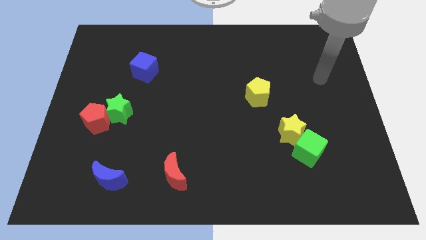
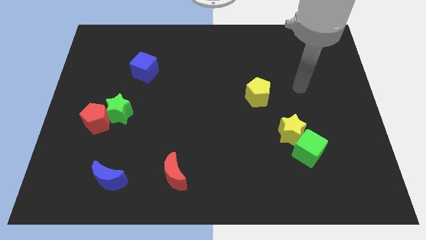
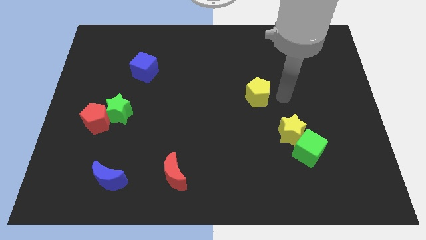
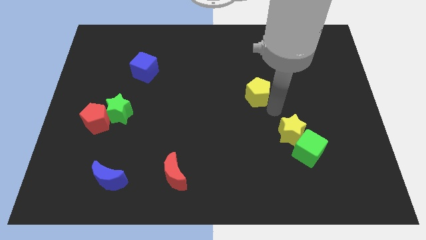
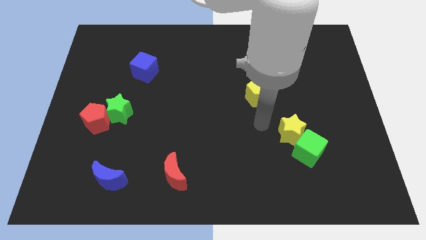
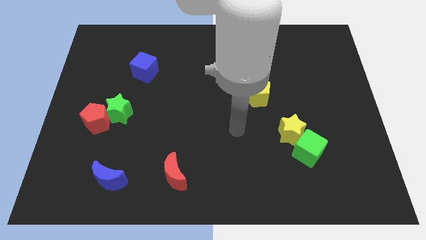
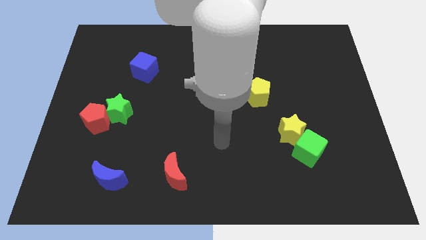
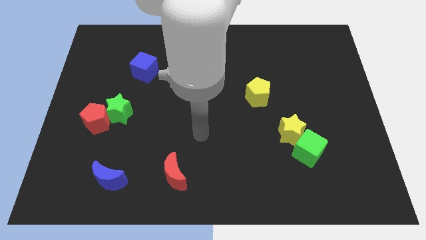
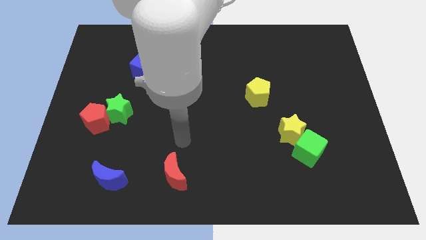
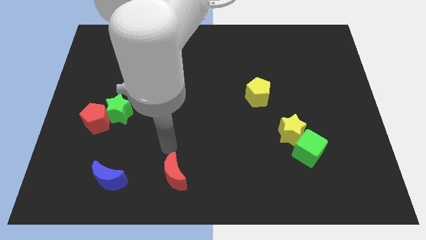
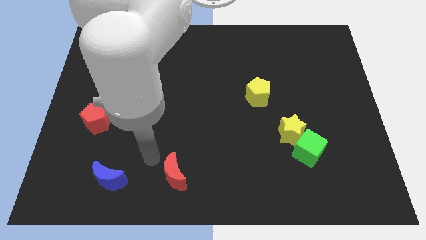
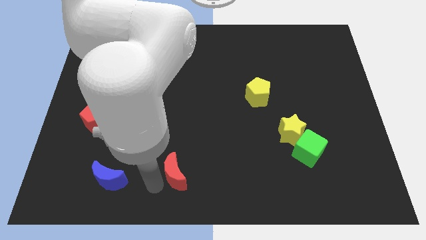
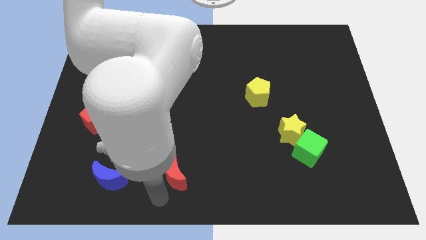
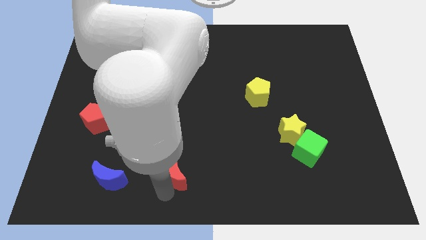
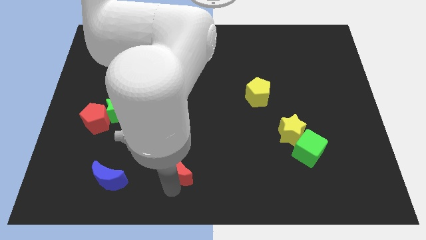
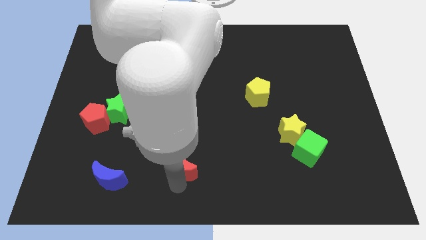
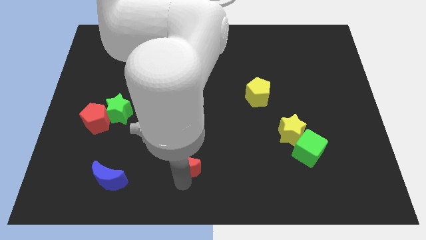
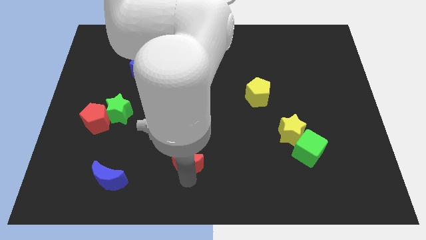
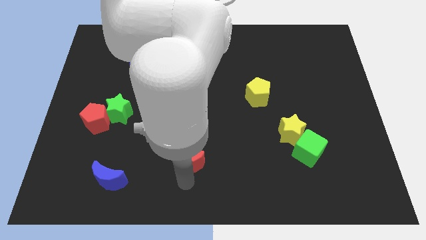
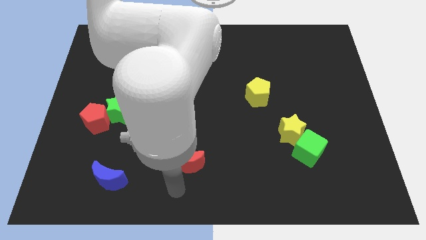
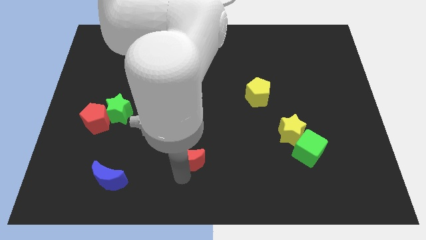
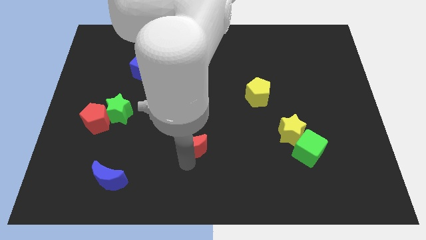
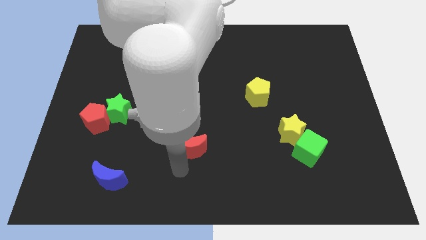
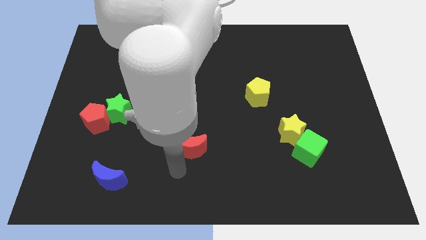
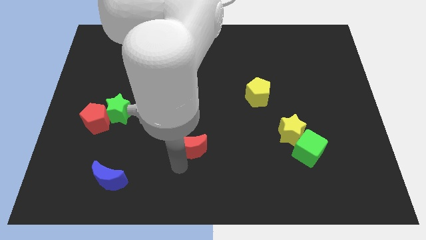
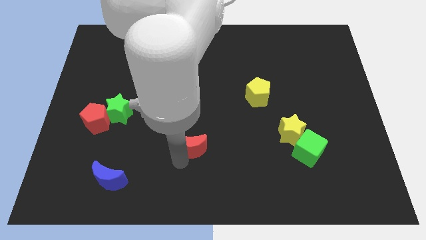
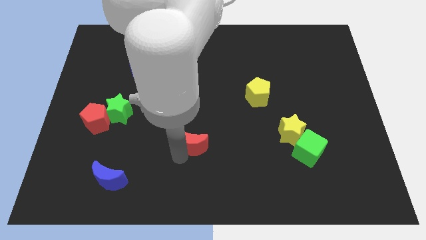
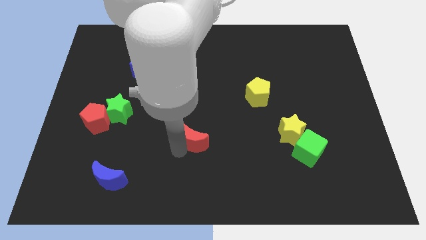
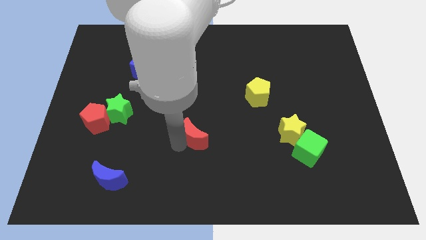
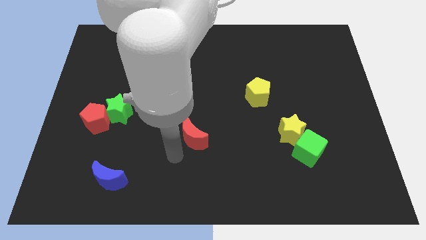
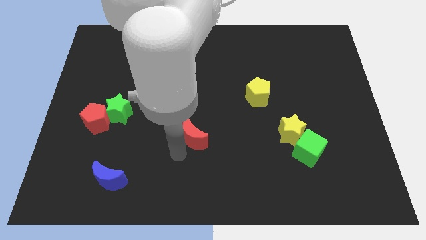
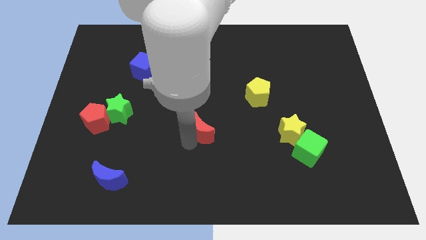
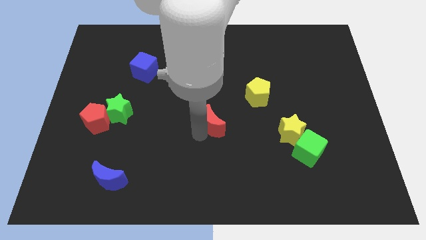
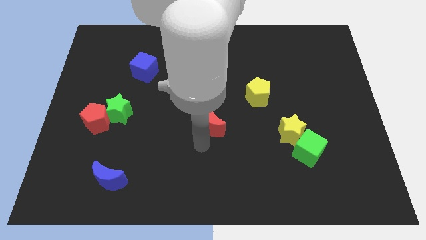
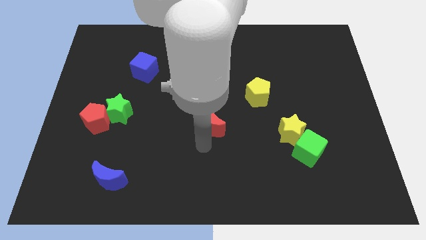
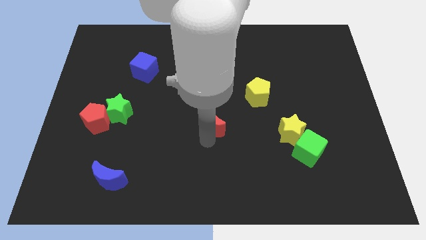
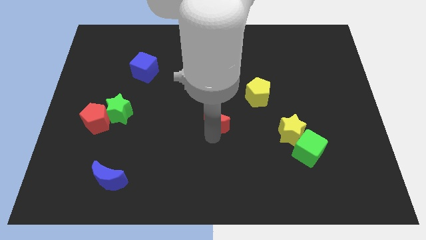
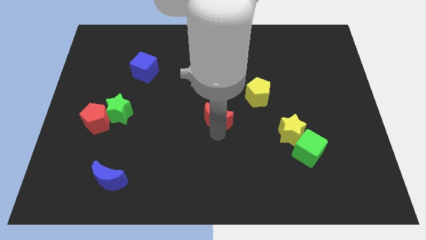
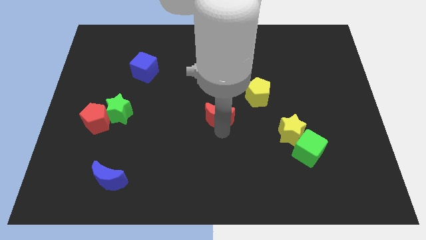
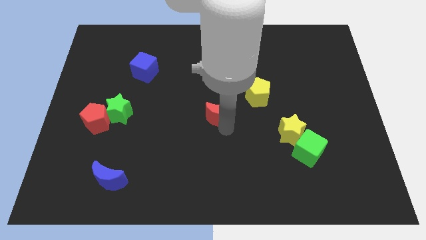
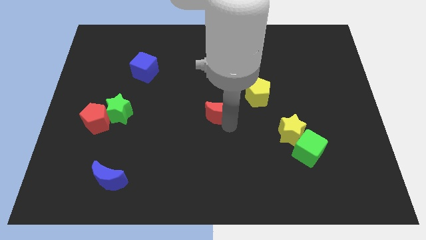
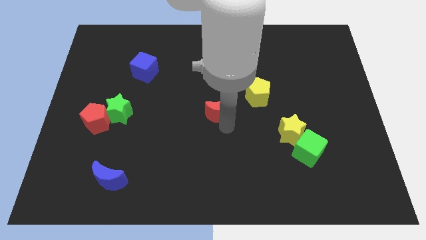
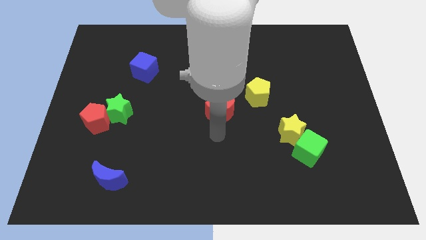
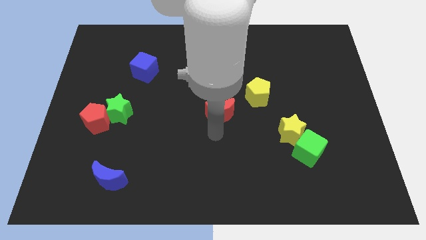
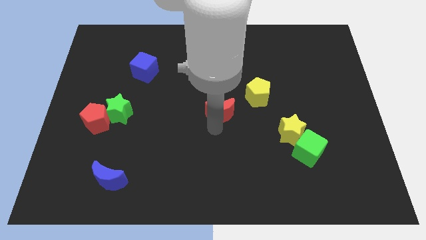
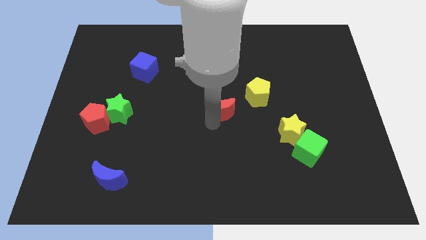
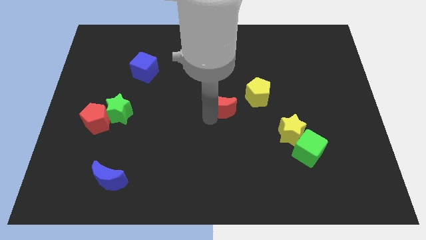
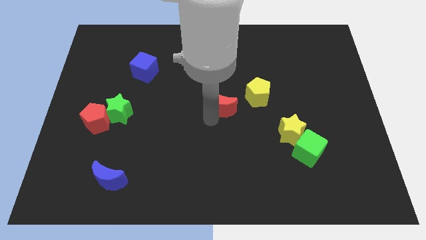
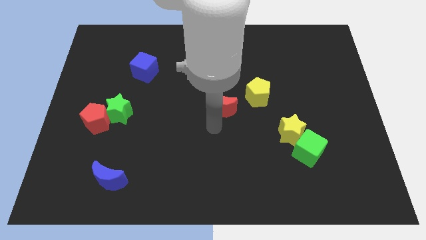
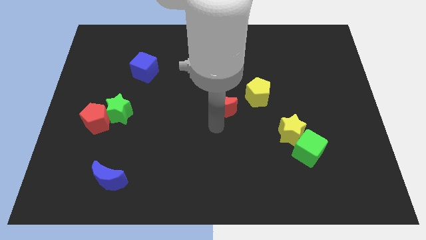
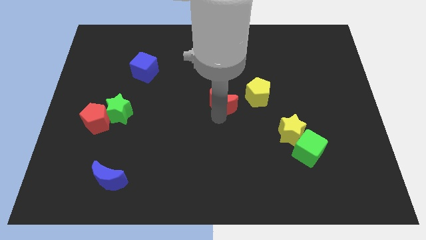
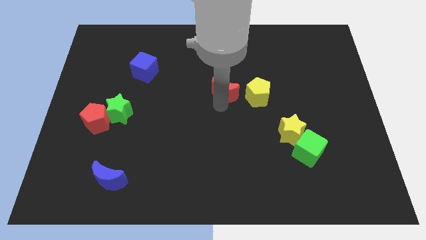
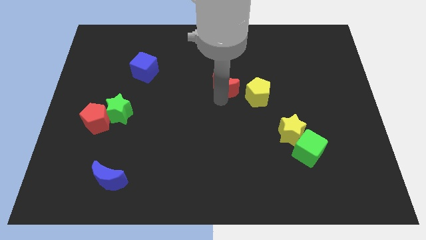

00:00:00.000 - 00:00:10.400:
move the red moon diagonally up and to the left of the yellow pentagon

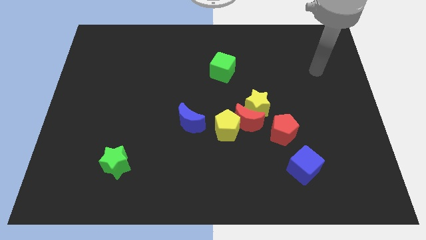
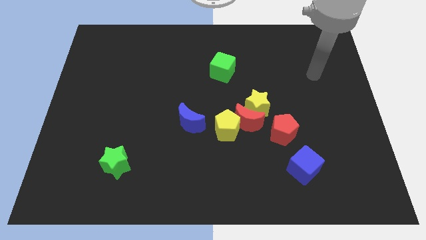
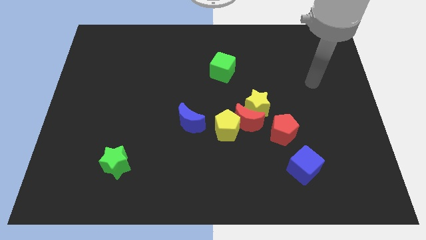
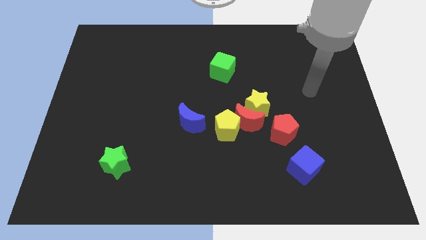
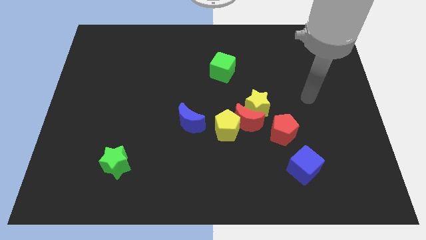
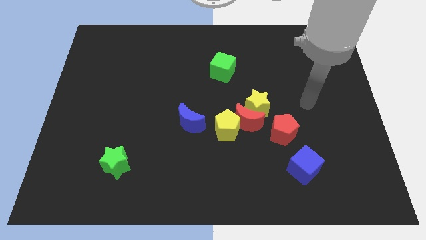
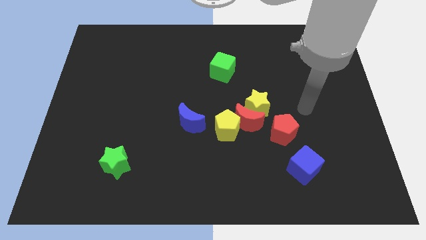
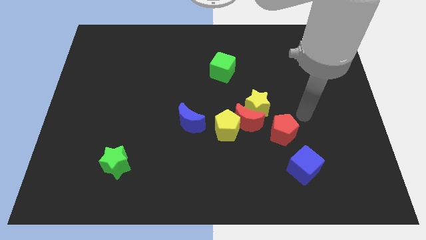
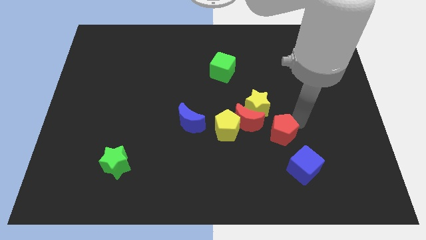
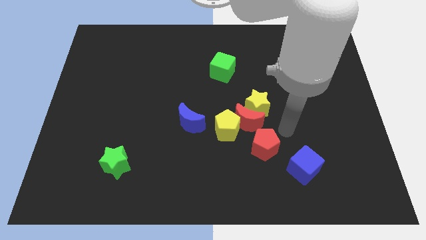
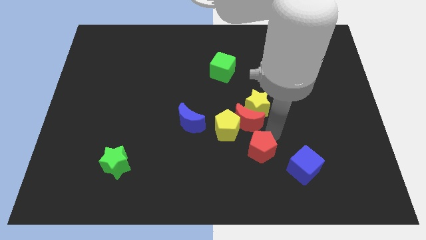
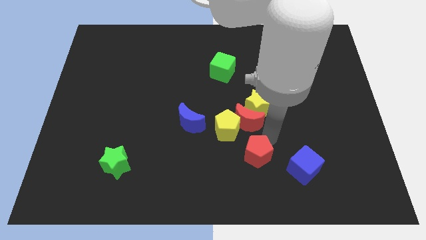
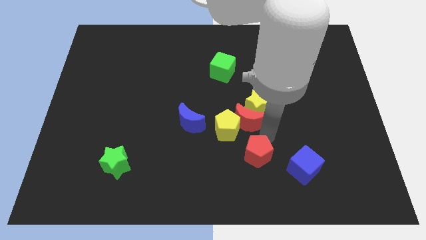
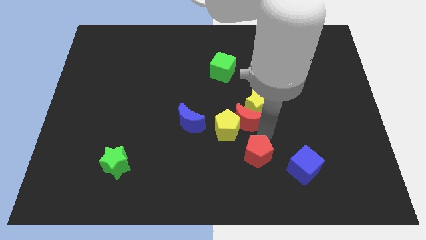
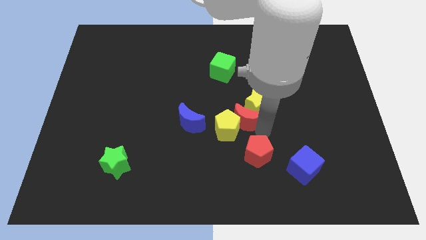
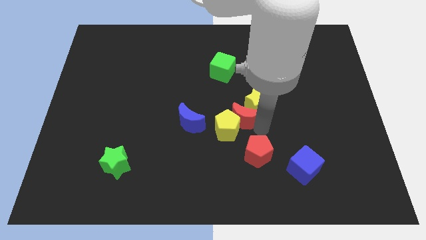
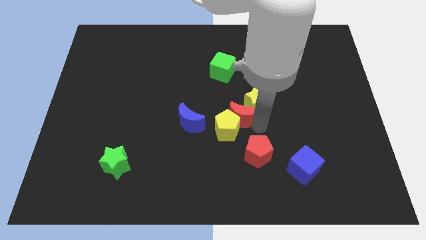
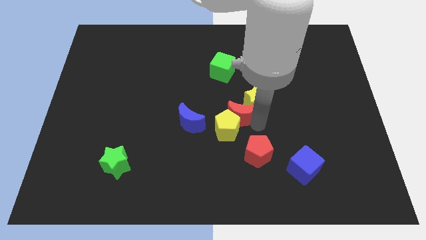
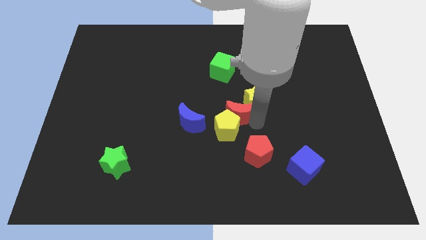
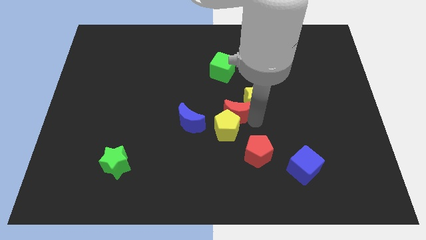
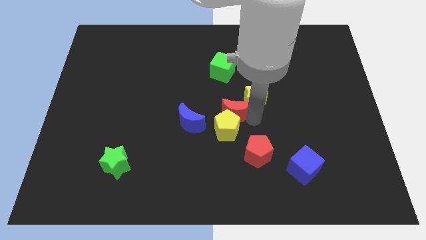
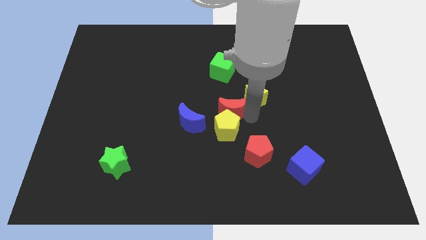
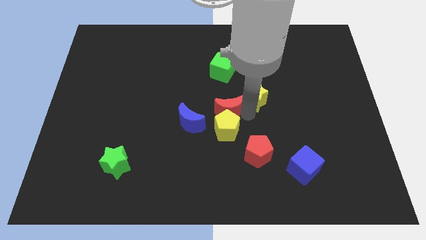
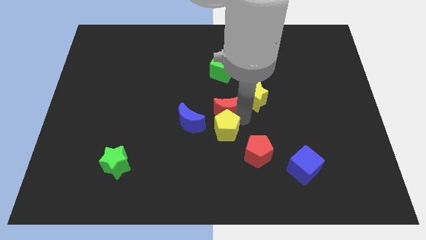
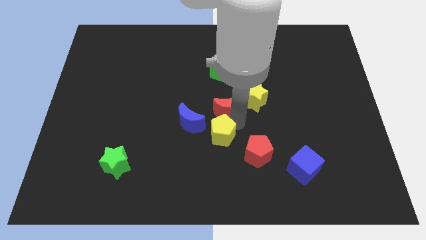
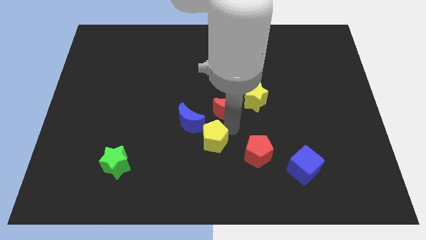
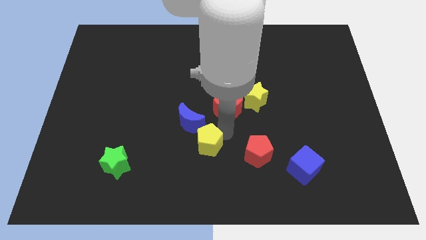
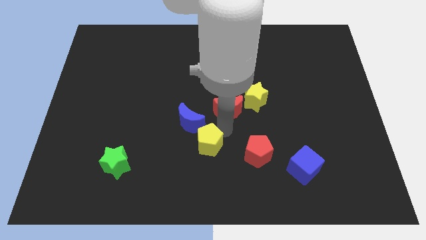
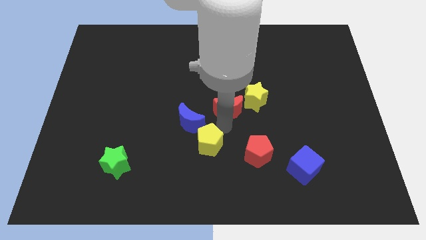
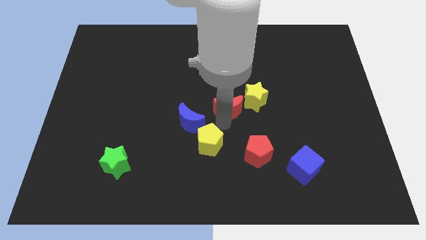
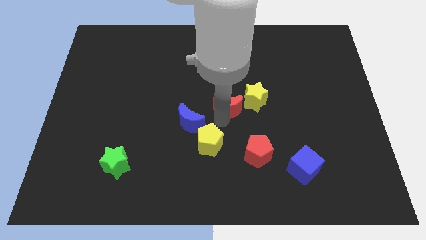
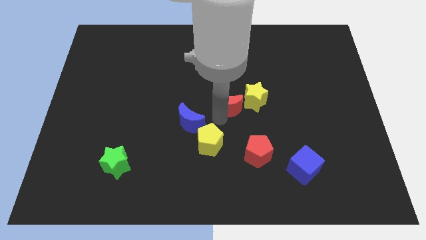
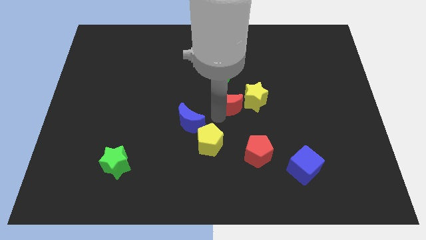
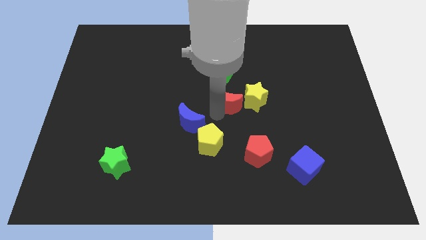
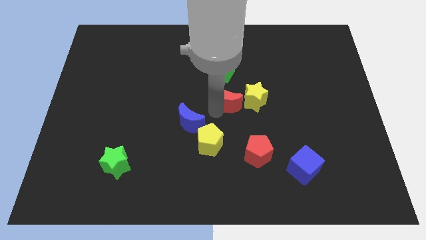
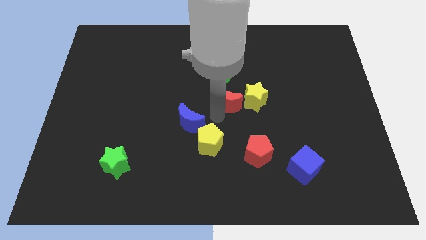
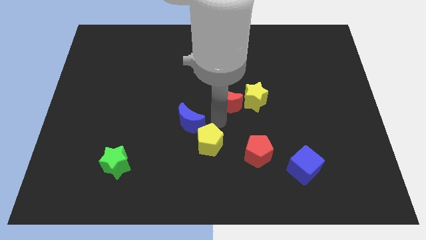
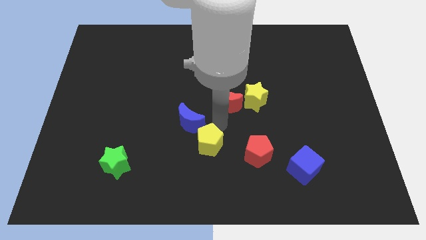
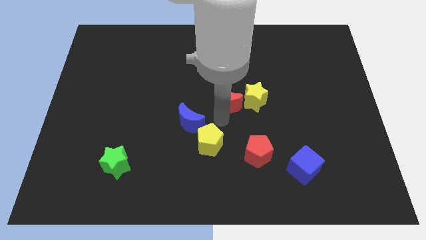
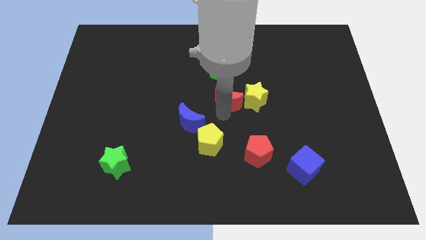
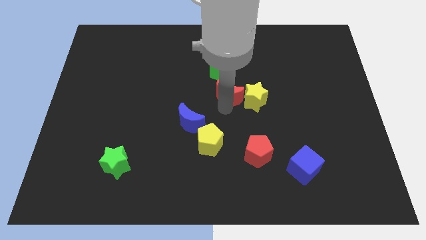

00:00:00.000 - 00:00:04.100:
push the red moon diagonally up and to the left of the yellow star
